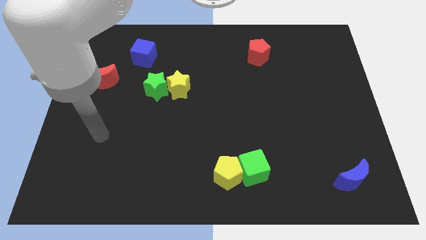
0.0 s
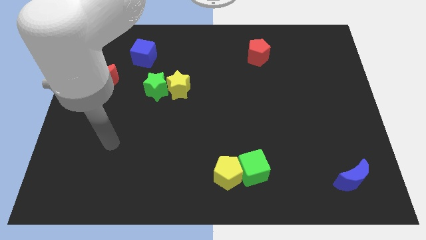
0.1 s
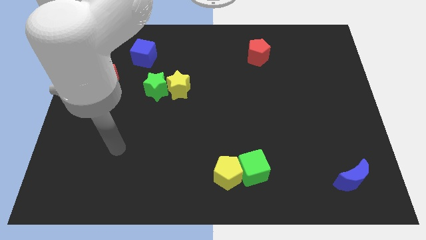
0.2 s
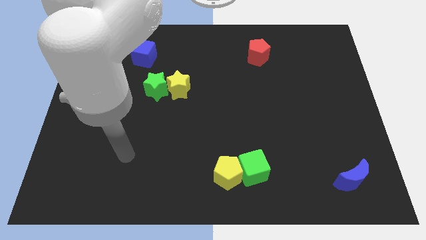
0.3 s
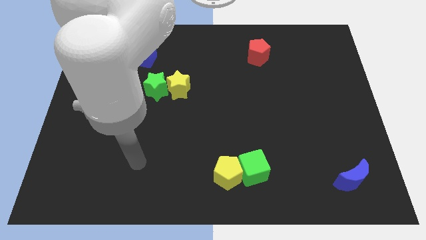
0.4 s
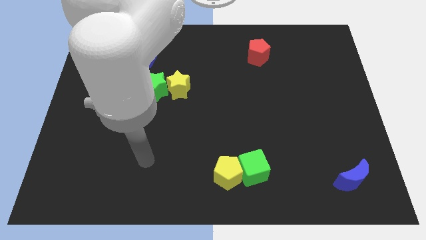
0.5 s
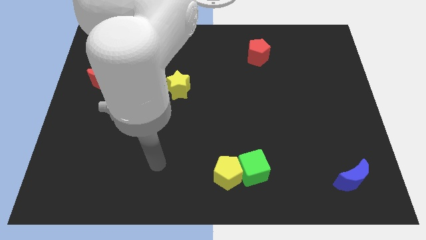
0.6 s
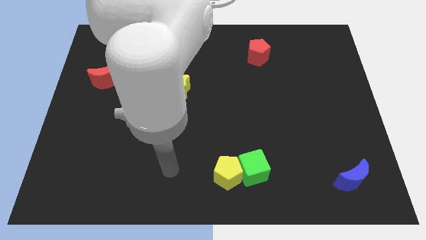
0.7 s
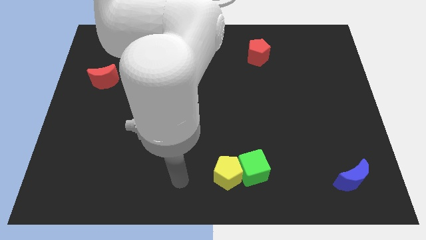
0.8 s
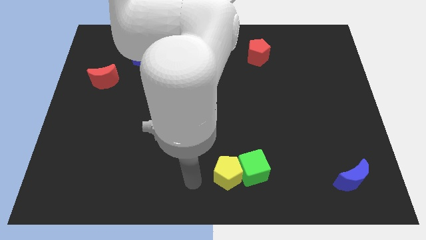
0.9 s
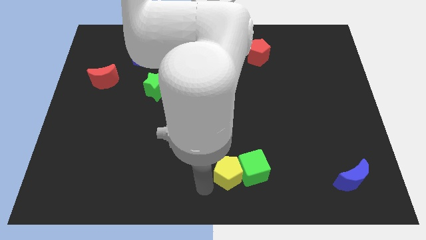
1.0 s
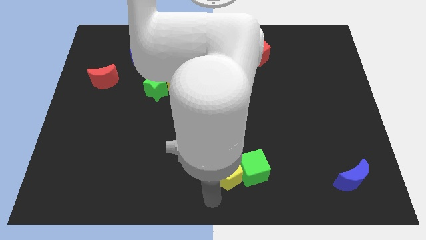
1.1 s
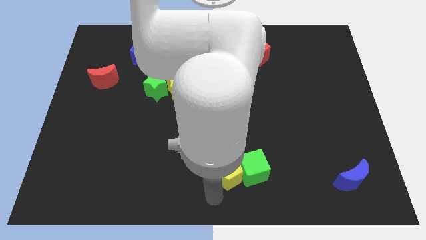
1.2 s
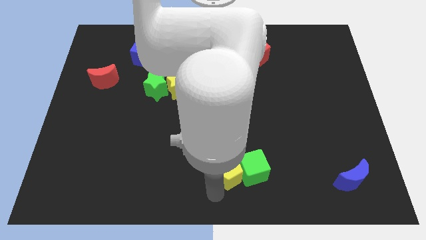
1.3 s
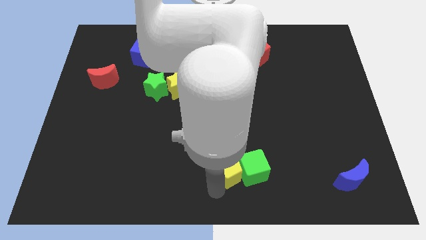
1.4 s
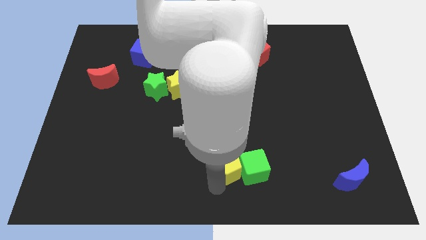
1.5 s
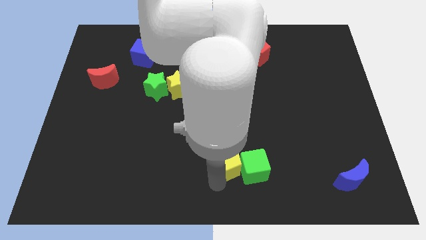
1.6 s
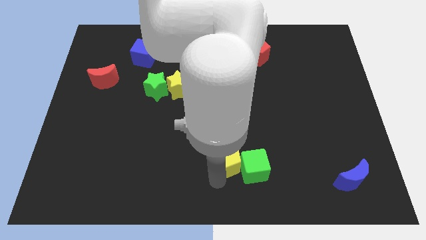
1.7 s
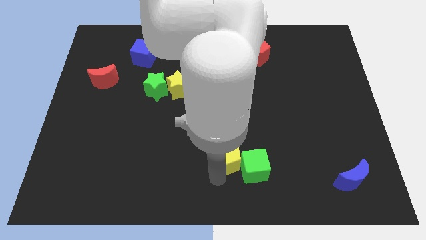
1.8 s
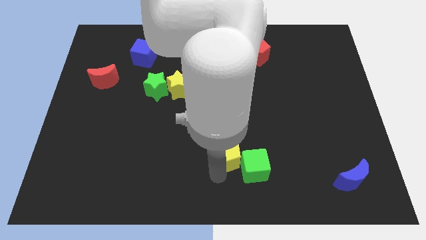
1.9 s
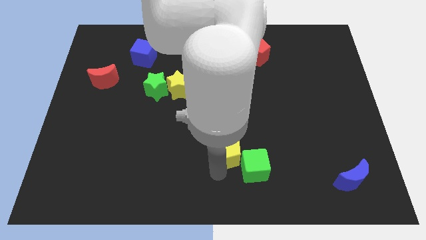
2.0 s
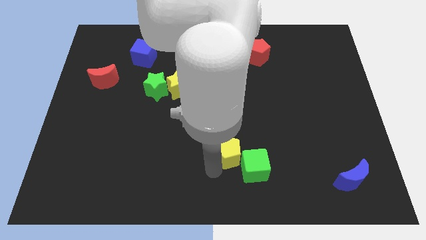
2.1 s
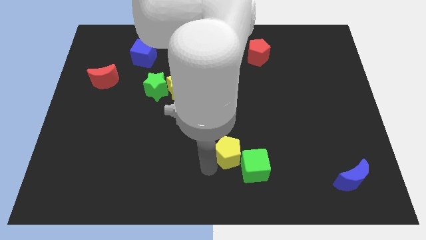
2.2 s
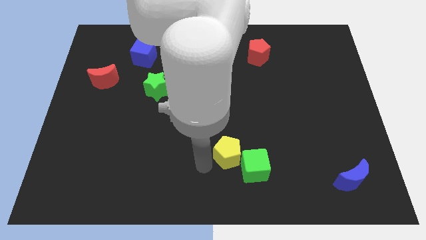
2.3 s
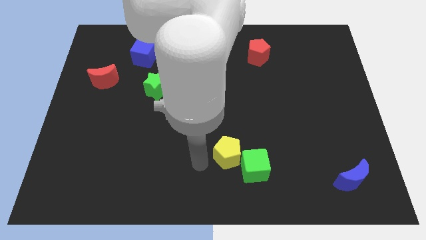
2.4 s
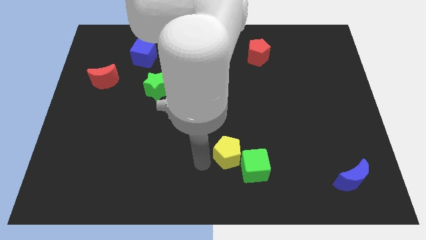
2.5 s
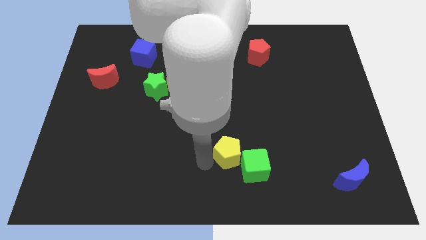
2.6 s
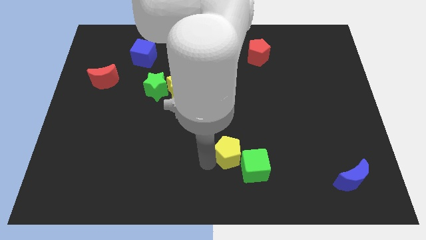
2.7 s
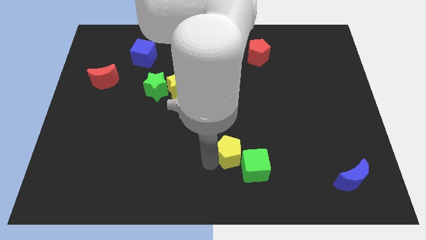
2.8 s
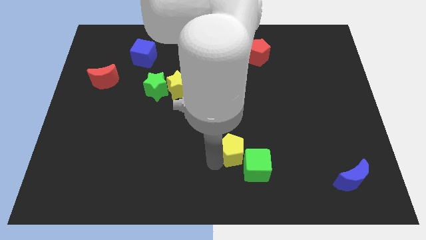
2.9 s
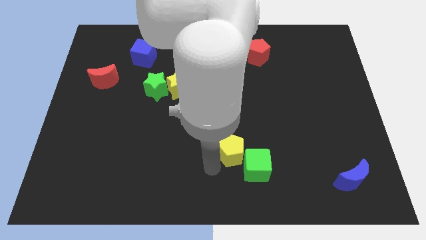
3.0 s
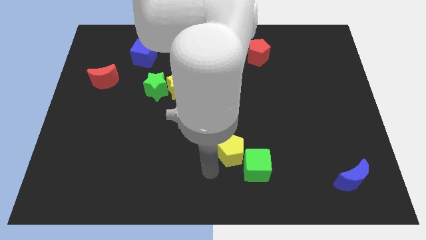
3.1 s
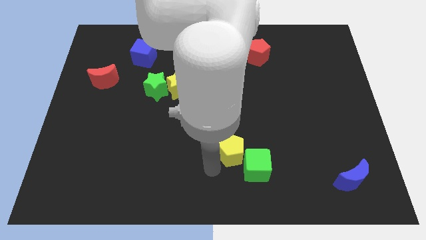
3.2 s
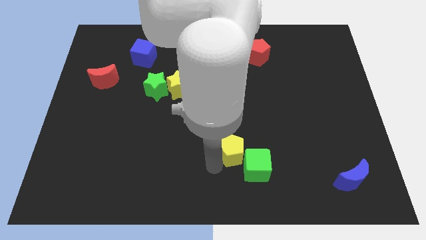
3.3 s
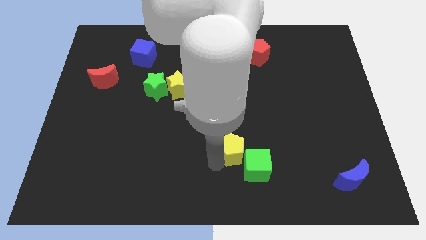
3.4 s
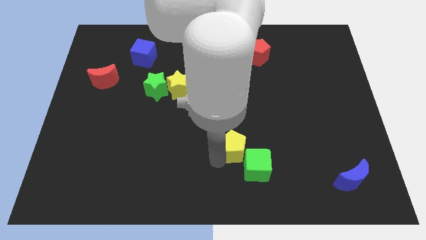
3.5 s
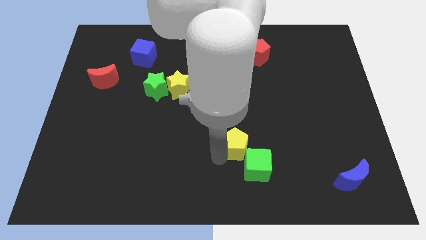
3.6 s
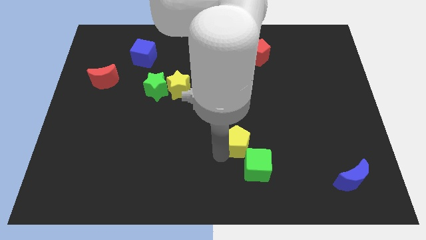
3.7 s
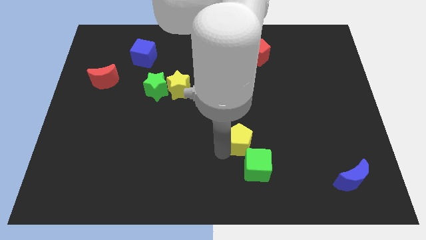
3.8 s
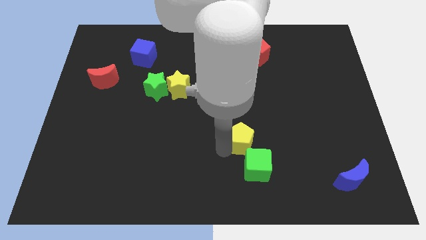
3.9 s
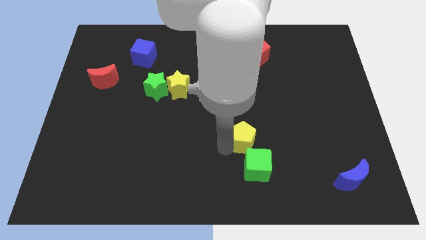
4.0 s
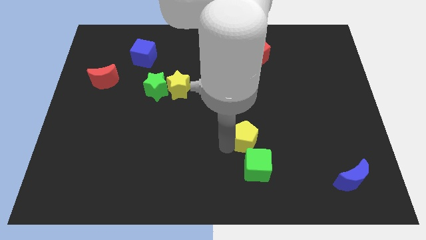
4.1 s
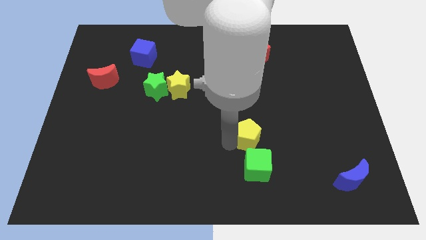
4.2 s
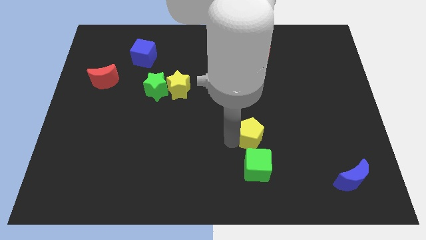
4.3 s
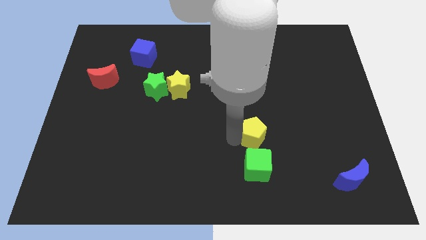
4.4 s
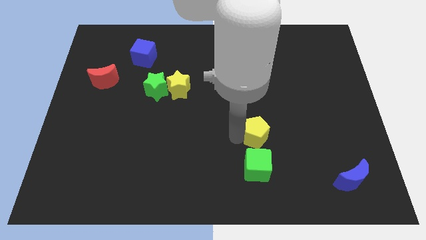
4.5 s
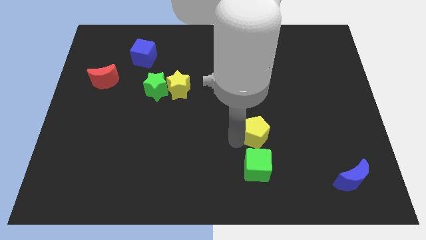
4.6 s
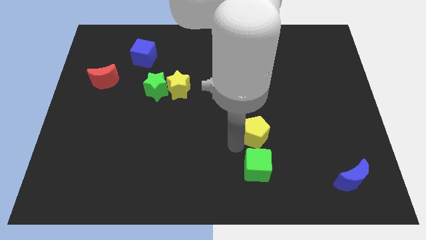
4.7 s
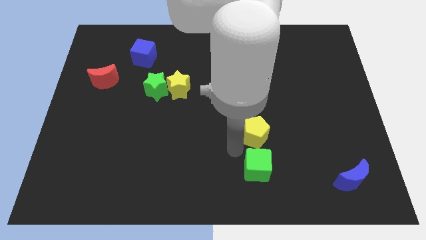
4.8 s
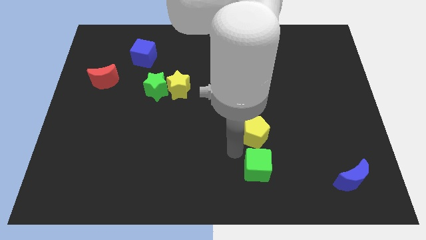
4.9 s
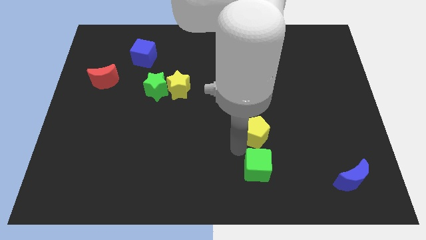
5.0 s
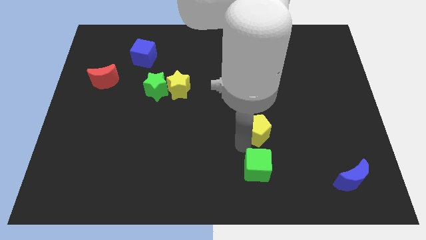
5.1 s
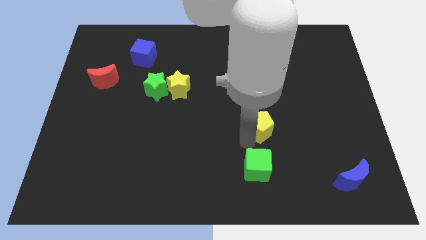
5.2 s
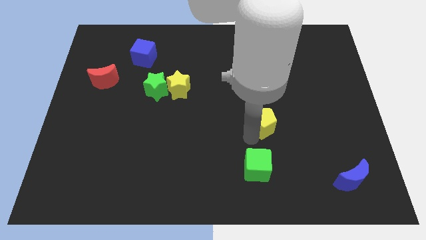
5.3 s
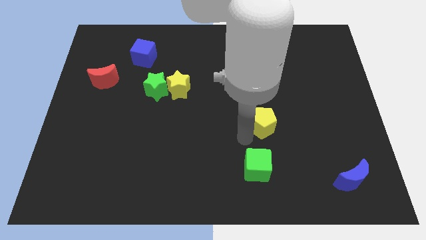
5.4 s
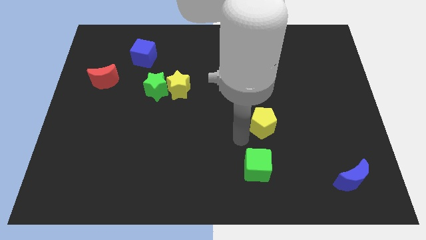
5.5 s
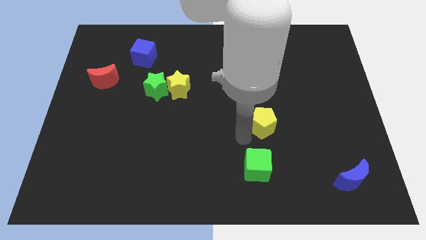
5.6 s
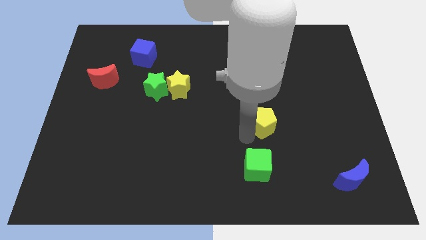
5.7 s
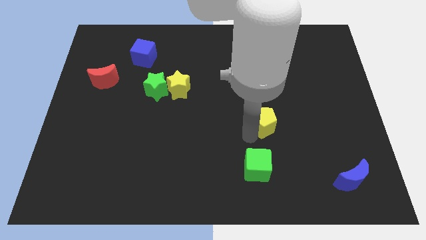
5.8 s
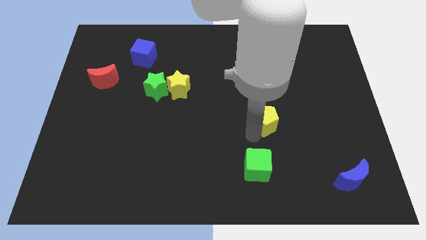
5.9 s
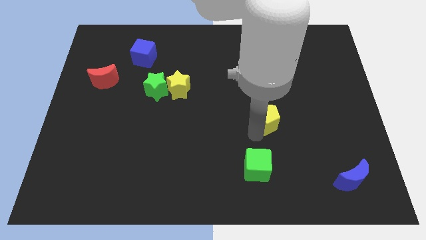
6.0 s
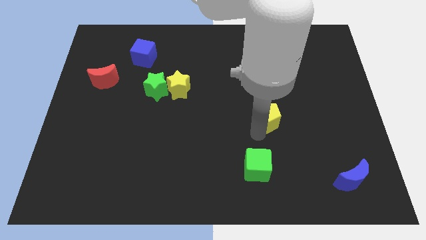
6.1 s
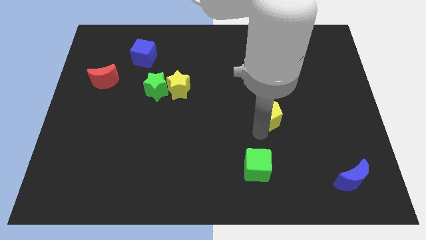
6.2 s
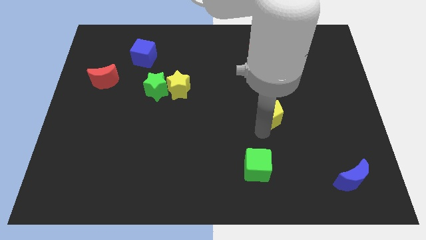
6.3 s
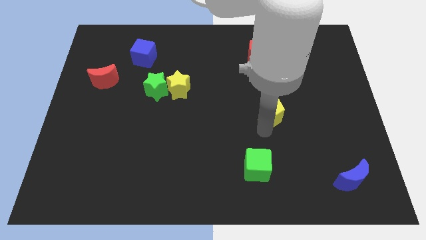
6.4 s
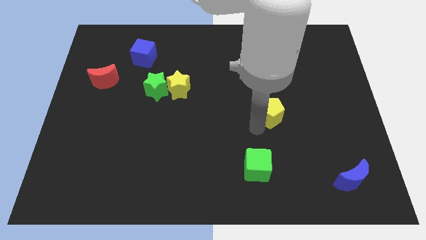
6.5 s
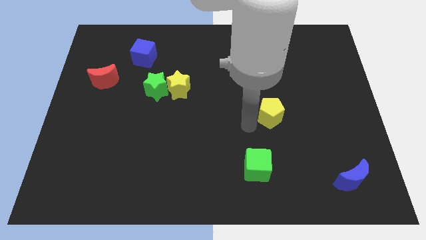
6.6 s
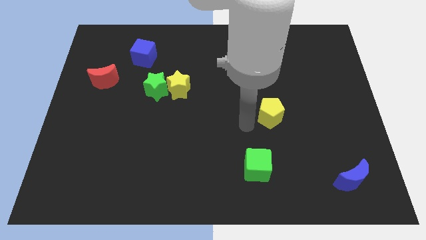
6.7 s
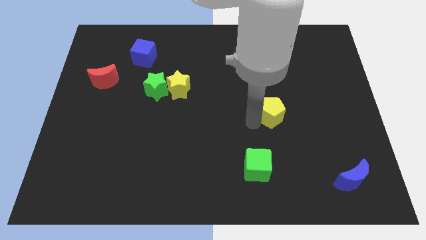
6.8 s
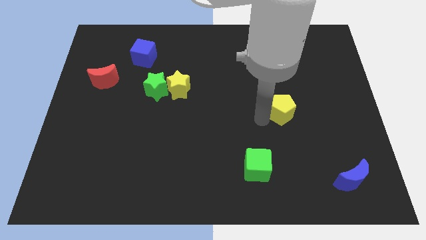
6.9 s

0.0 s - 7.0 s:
push the yellow pentagon upwards and to the right

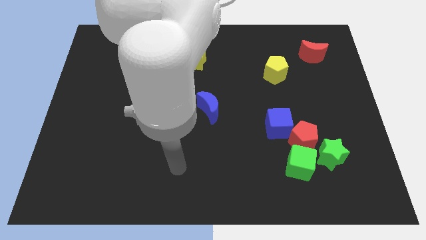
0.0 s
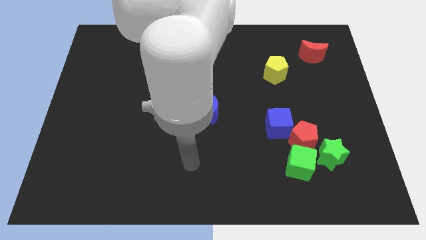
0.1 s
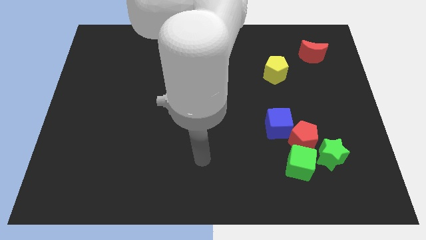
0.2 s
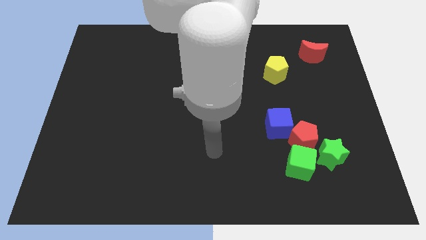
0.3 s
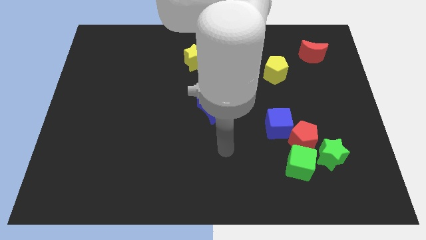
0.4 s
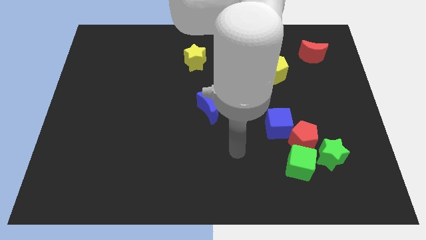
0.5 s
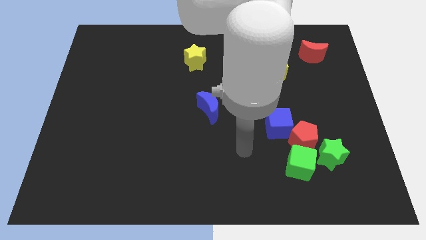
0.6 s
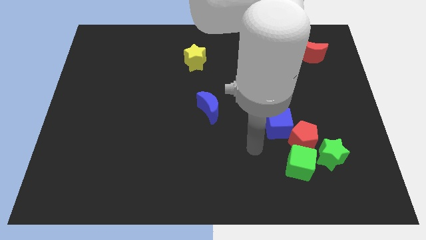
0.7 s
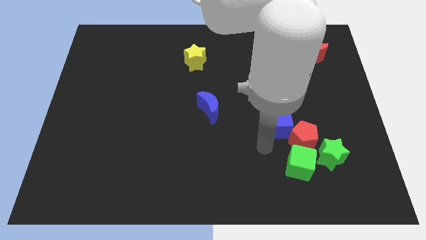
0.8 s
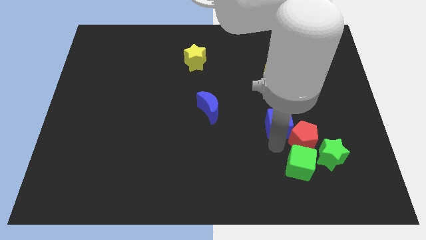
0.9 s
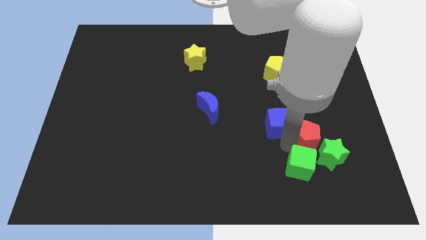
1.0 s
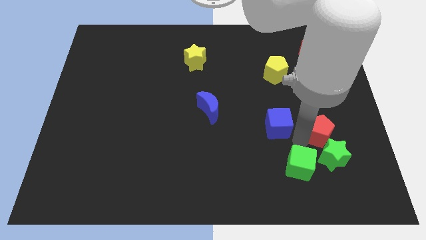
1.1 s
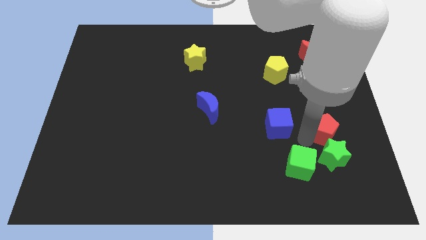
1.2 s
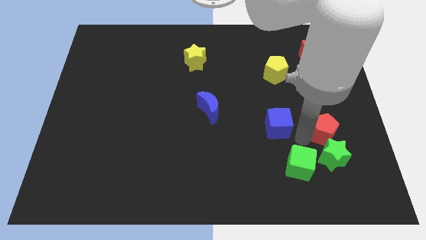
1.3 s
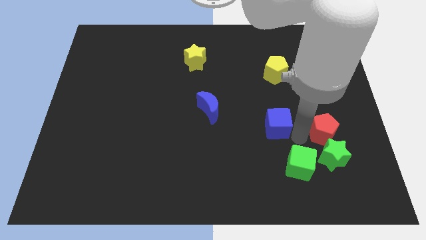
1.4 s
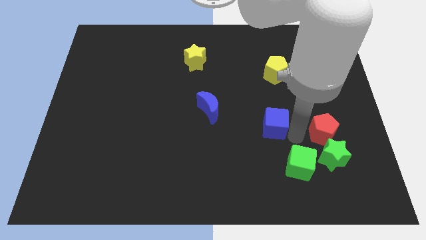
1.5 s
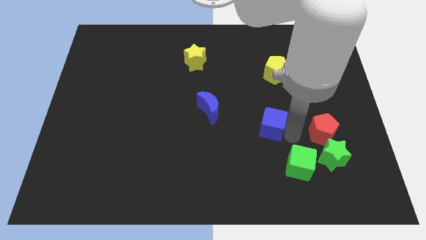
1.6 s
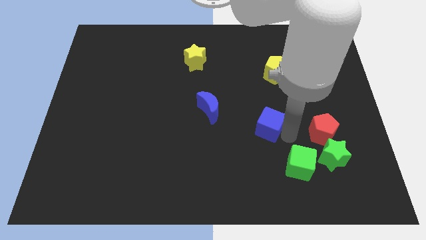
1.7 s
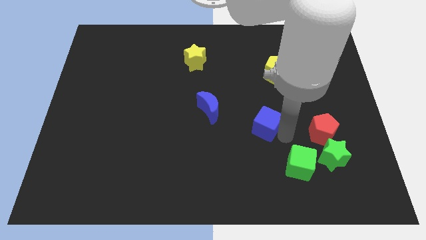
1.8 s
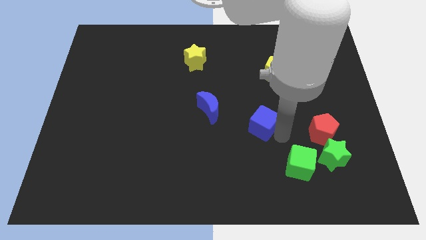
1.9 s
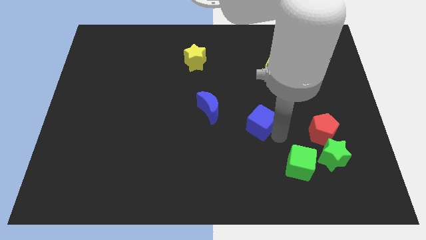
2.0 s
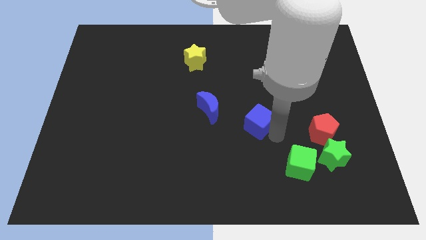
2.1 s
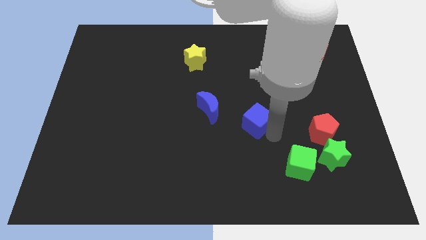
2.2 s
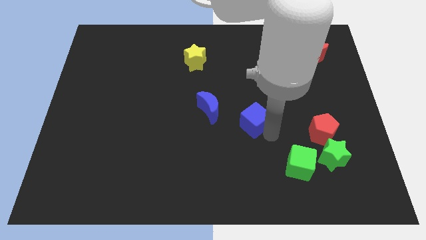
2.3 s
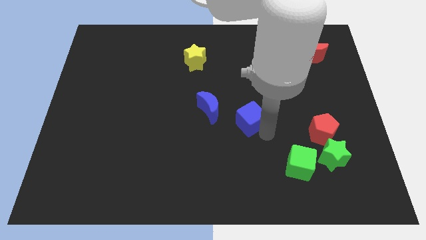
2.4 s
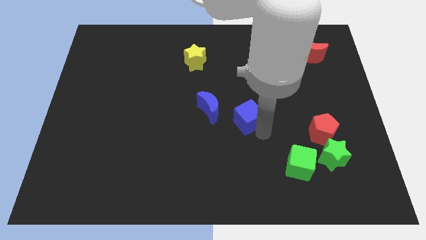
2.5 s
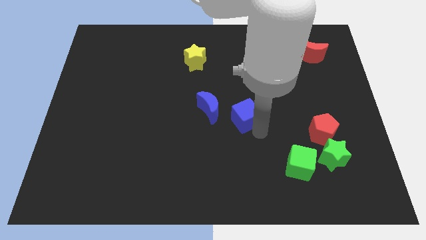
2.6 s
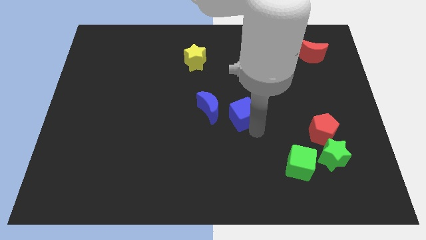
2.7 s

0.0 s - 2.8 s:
slightly slide the blue cube up and then left
